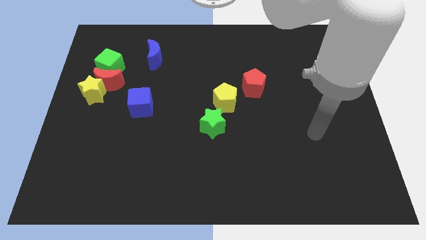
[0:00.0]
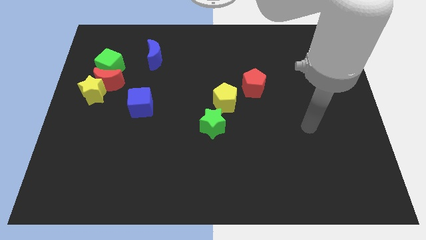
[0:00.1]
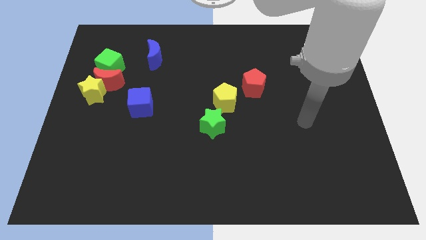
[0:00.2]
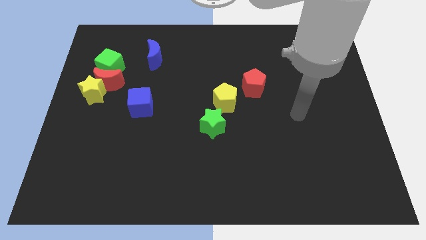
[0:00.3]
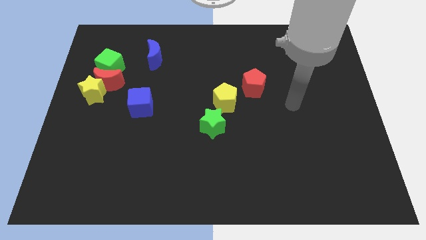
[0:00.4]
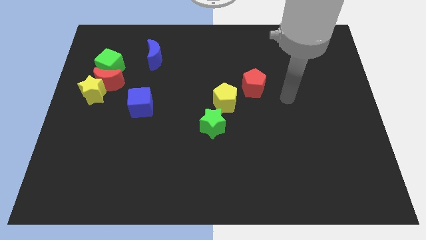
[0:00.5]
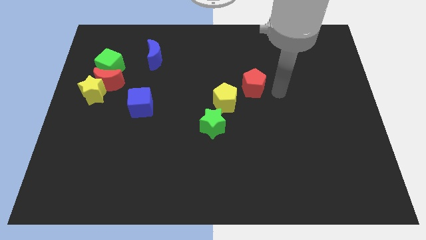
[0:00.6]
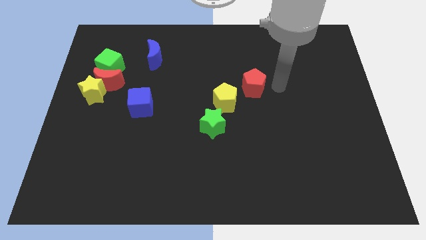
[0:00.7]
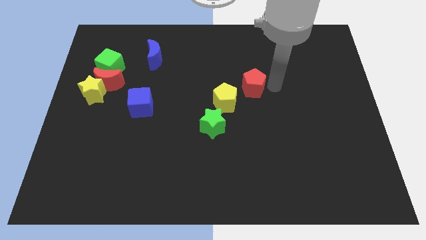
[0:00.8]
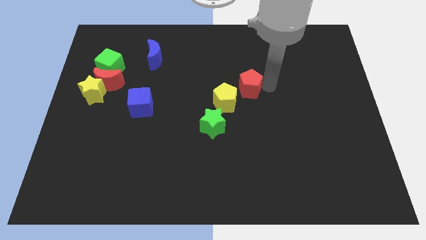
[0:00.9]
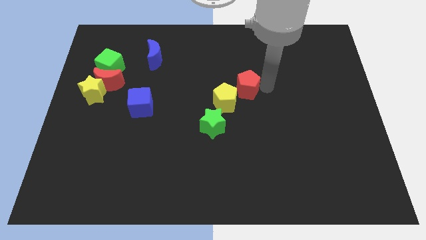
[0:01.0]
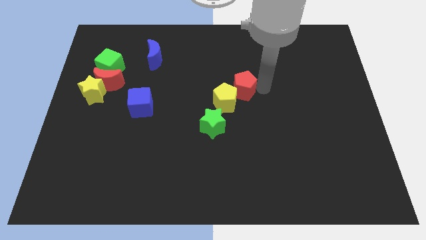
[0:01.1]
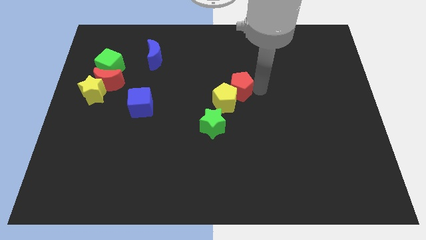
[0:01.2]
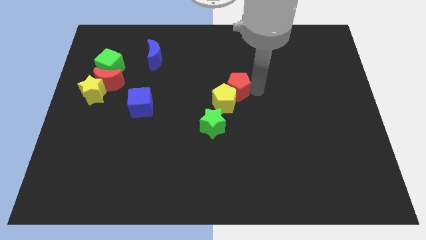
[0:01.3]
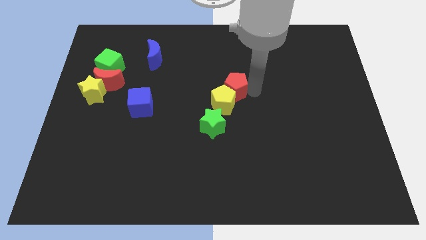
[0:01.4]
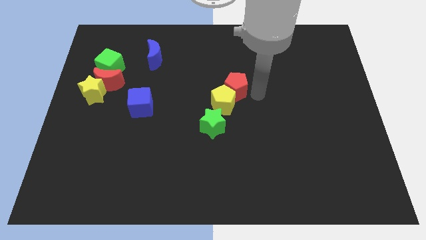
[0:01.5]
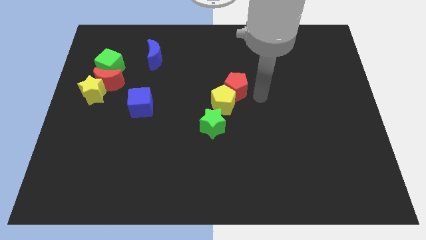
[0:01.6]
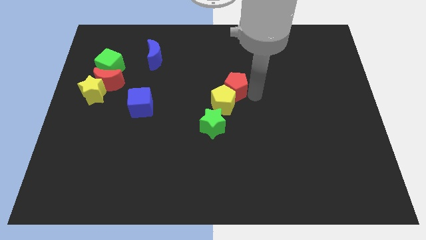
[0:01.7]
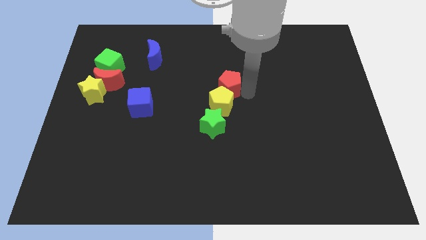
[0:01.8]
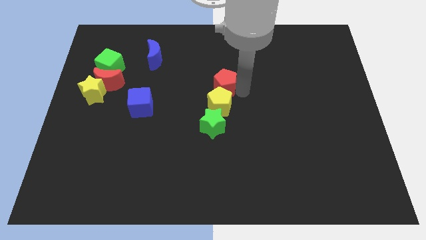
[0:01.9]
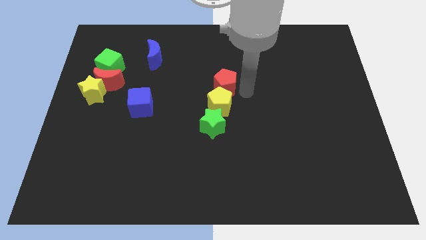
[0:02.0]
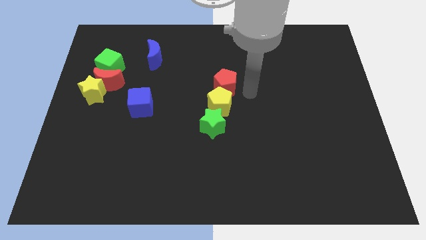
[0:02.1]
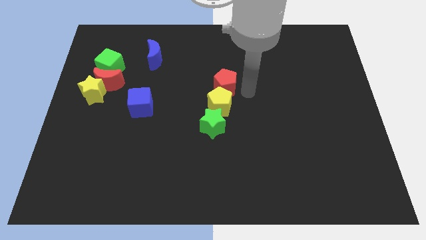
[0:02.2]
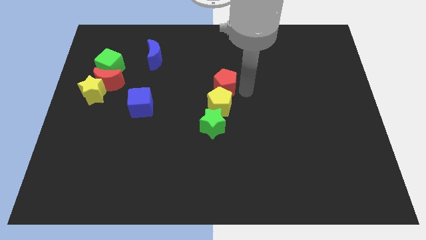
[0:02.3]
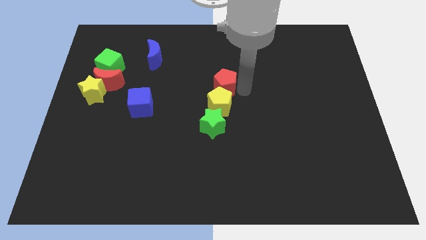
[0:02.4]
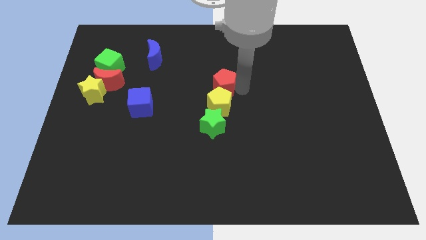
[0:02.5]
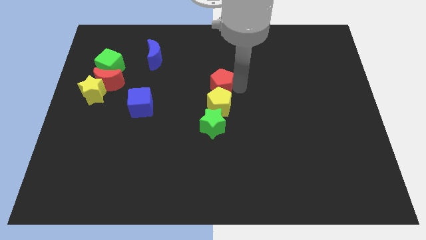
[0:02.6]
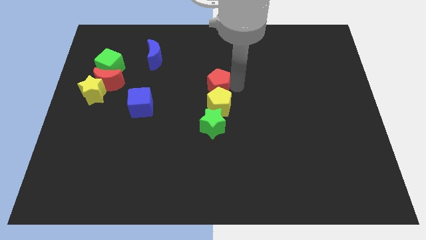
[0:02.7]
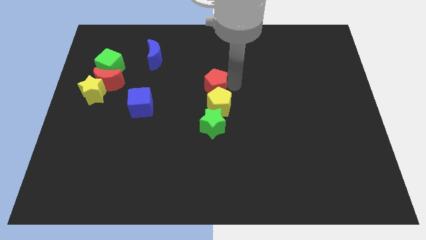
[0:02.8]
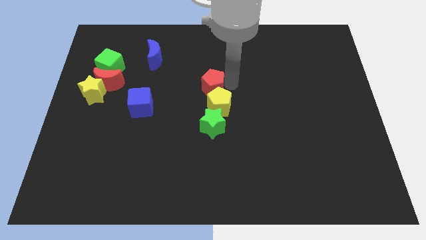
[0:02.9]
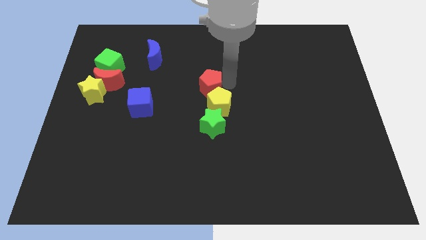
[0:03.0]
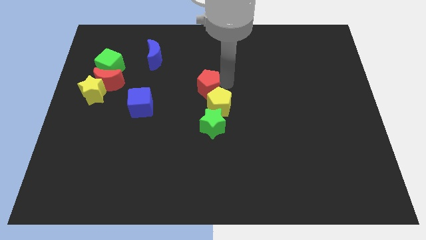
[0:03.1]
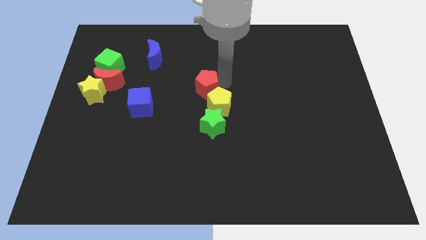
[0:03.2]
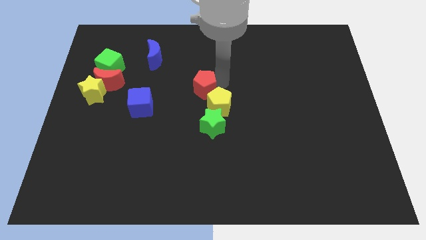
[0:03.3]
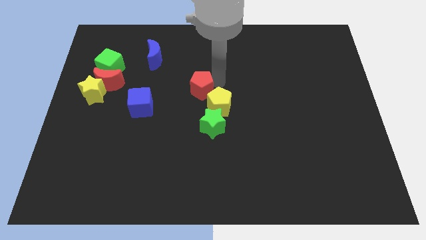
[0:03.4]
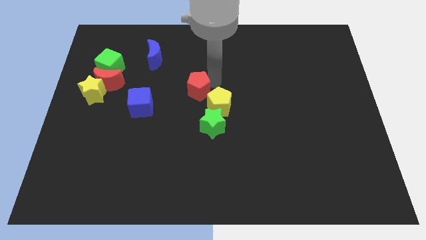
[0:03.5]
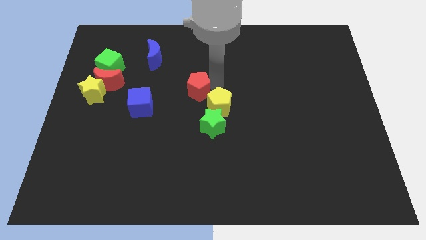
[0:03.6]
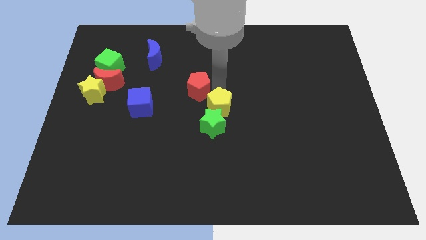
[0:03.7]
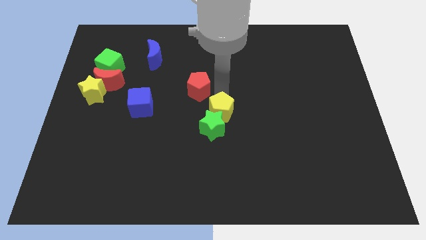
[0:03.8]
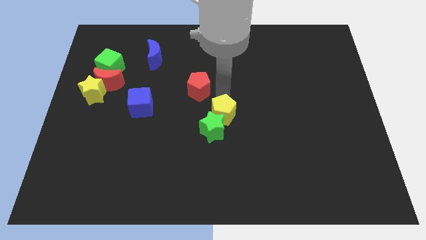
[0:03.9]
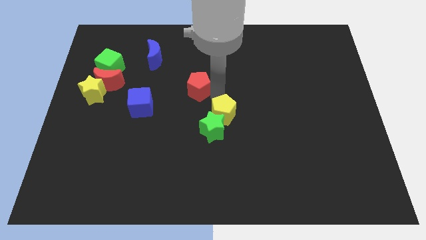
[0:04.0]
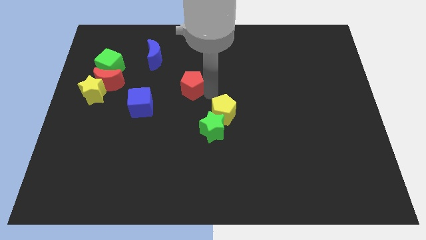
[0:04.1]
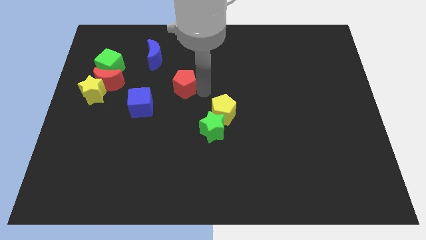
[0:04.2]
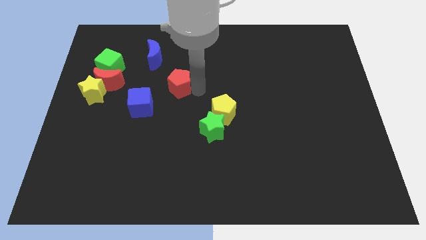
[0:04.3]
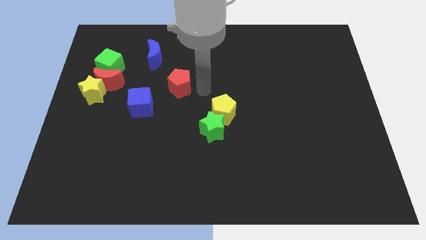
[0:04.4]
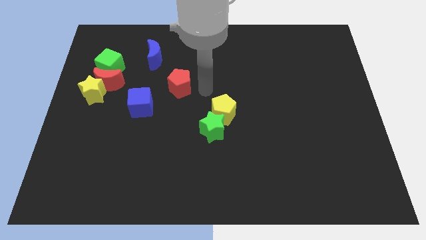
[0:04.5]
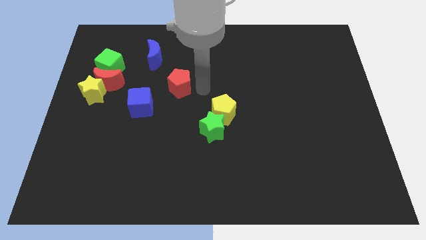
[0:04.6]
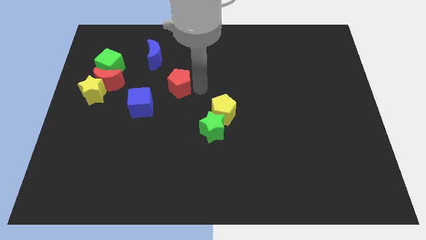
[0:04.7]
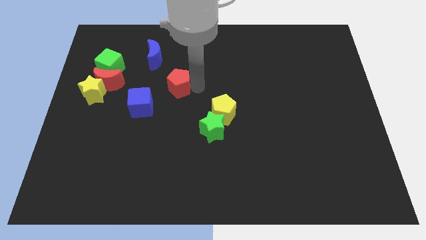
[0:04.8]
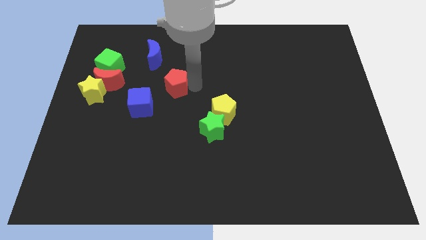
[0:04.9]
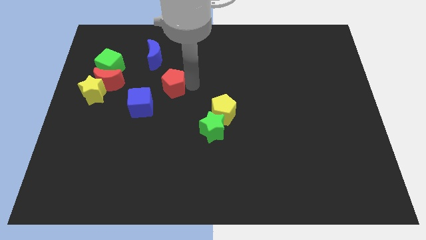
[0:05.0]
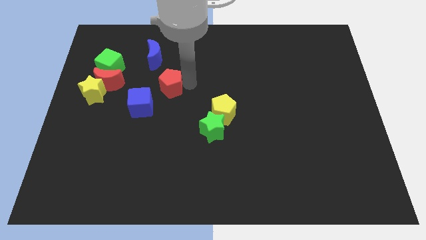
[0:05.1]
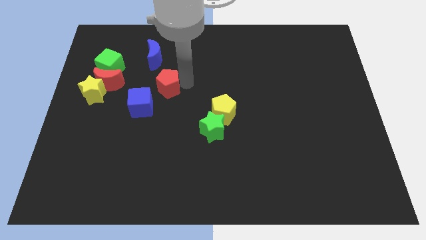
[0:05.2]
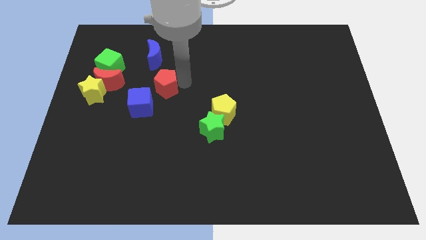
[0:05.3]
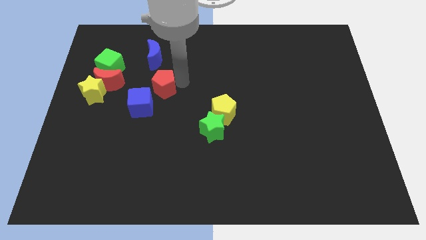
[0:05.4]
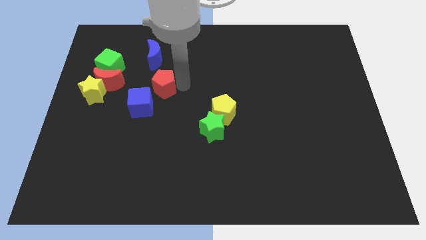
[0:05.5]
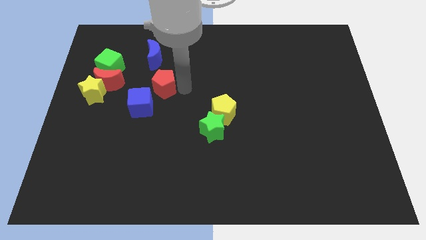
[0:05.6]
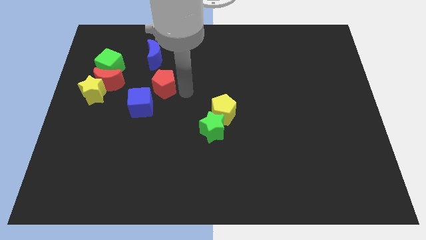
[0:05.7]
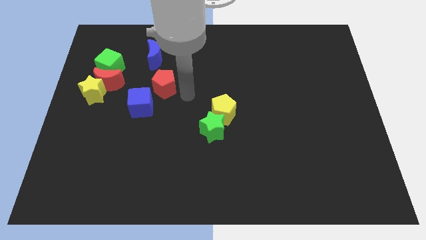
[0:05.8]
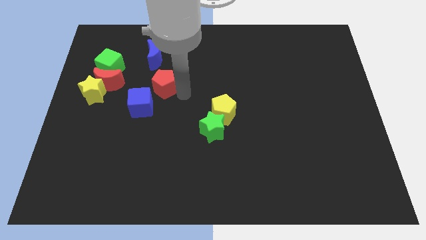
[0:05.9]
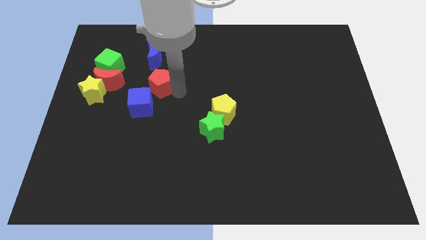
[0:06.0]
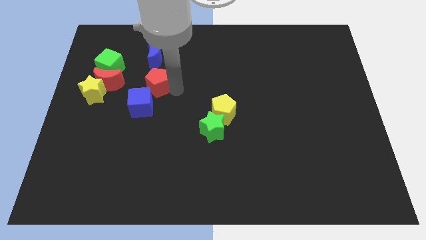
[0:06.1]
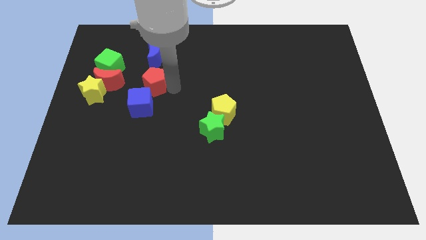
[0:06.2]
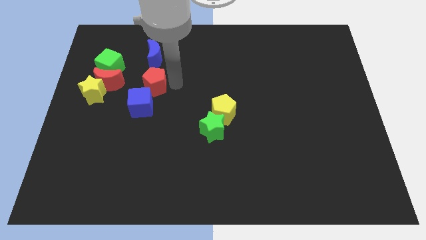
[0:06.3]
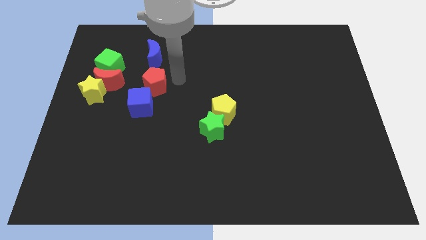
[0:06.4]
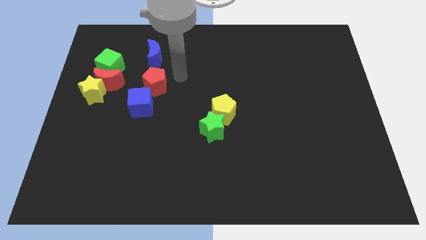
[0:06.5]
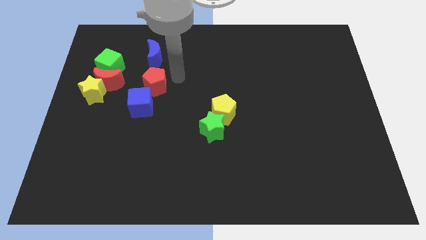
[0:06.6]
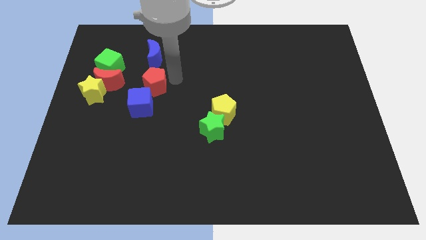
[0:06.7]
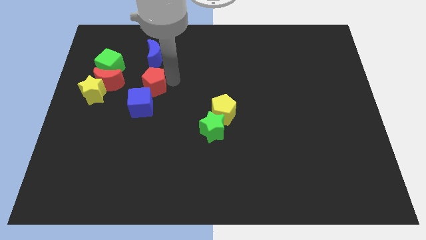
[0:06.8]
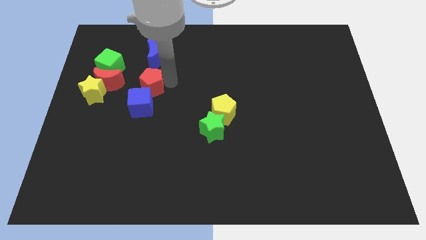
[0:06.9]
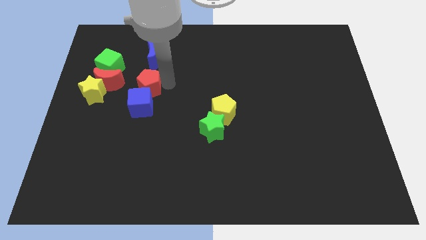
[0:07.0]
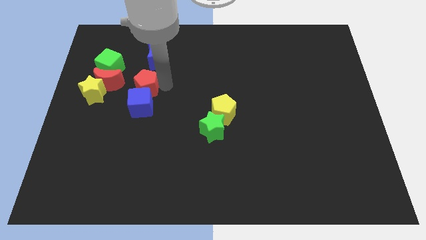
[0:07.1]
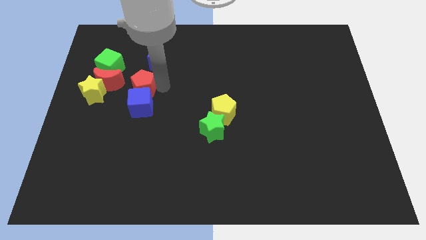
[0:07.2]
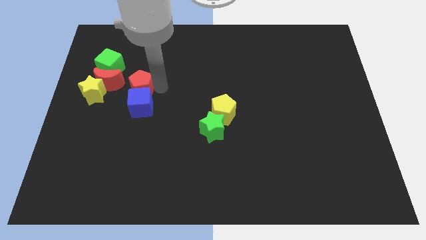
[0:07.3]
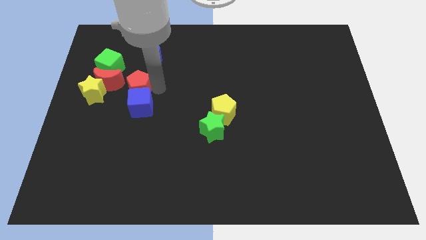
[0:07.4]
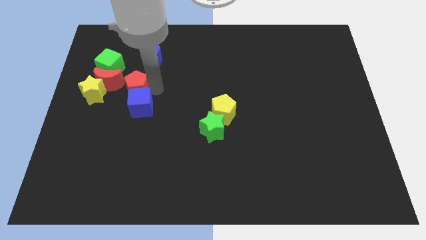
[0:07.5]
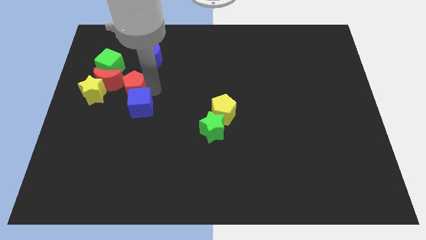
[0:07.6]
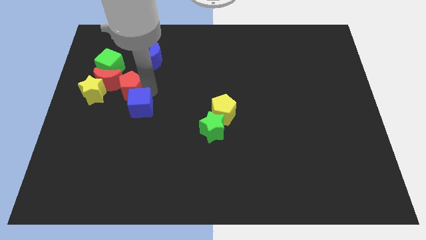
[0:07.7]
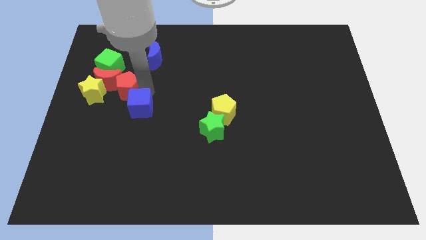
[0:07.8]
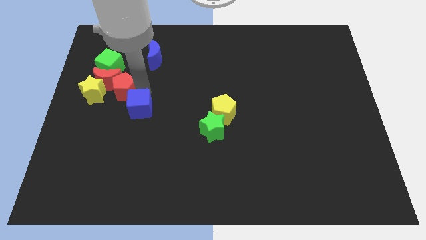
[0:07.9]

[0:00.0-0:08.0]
put the red pentagon below the green cube
